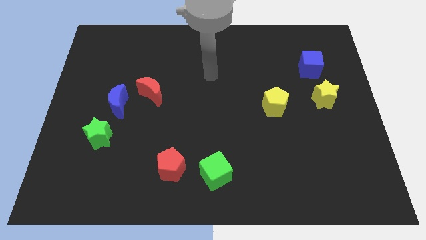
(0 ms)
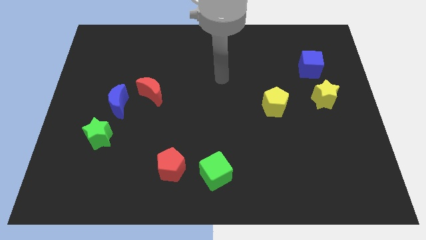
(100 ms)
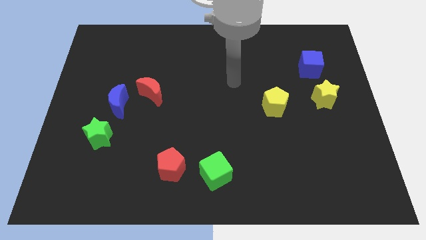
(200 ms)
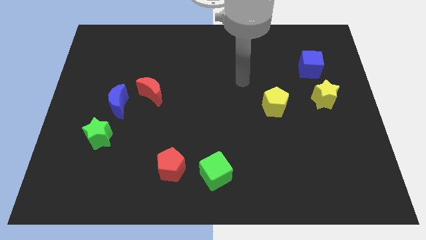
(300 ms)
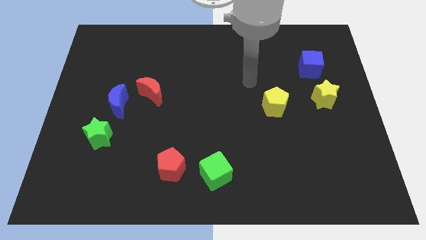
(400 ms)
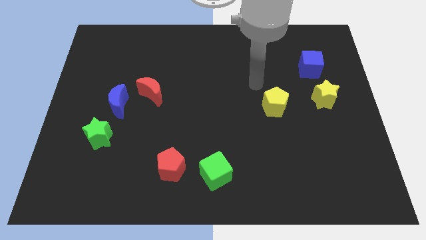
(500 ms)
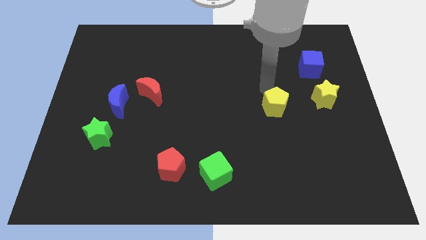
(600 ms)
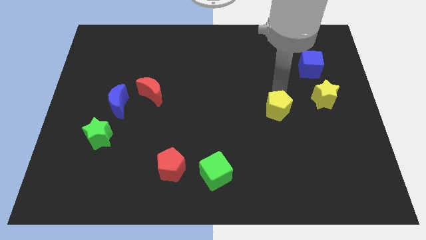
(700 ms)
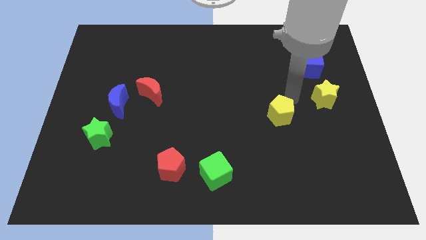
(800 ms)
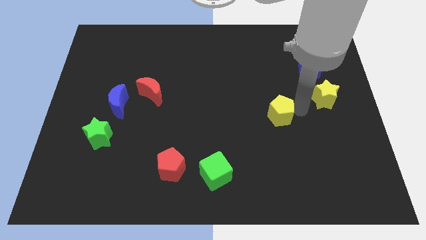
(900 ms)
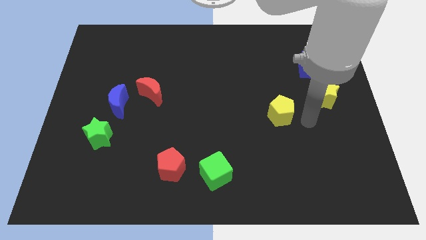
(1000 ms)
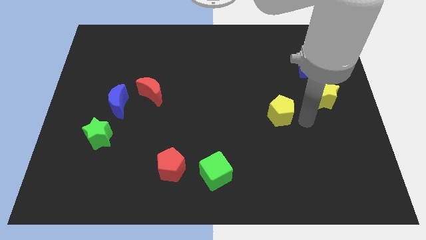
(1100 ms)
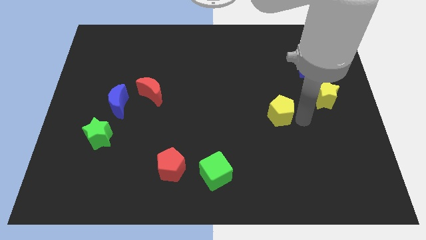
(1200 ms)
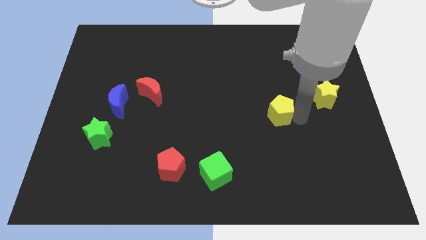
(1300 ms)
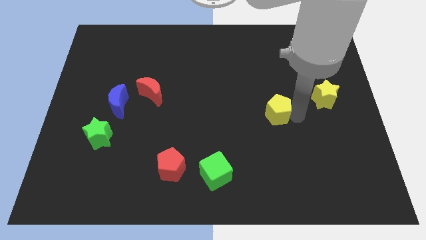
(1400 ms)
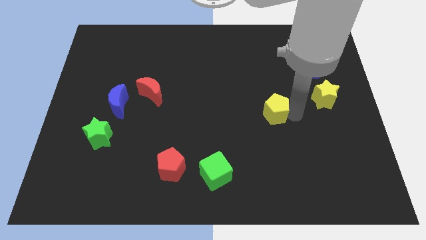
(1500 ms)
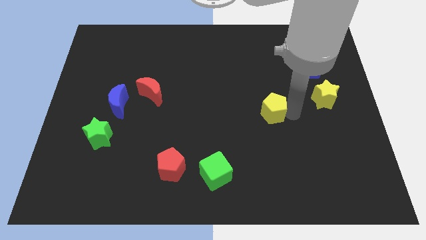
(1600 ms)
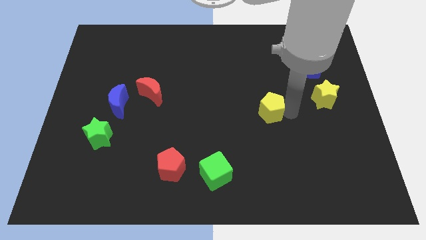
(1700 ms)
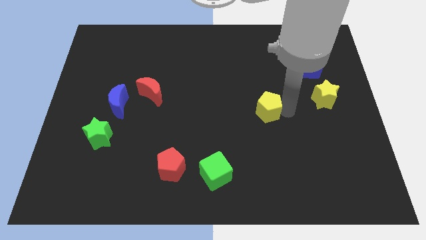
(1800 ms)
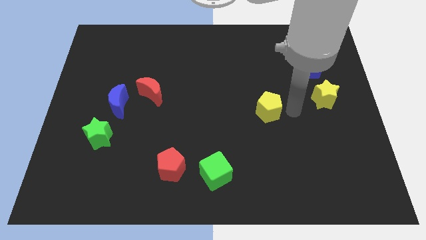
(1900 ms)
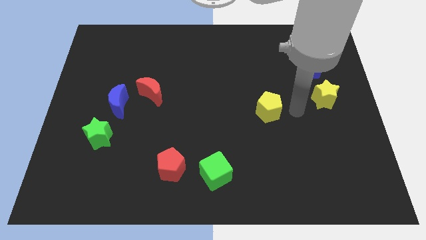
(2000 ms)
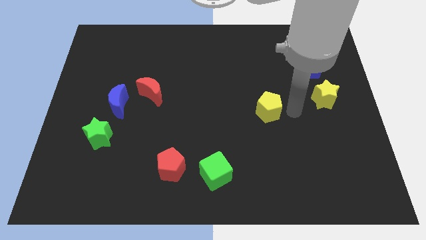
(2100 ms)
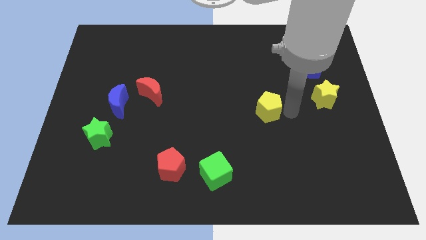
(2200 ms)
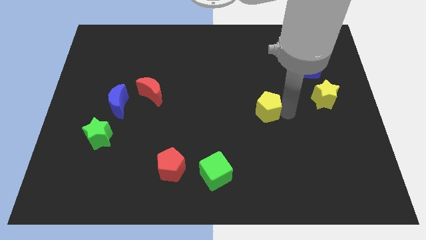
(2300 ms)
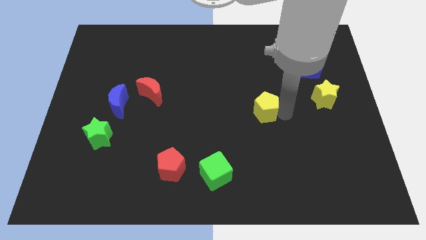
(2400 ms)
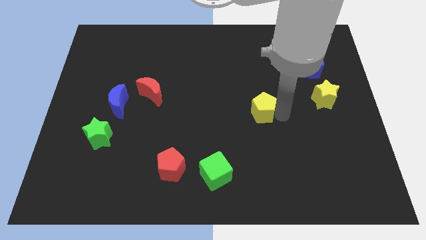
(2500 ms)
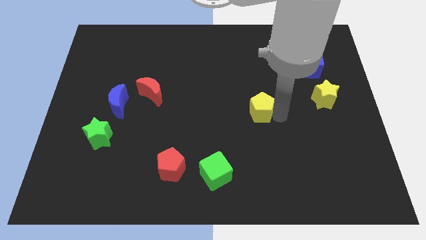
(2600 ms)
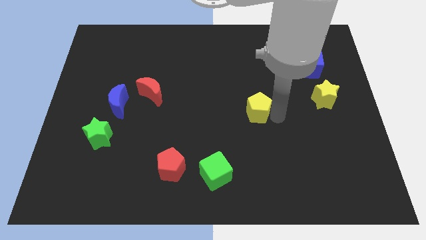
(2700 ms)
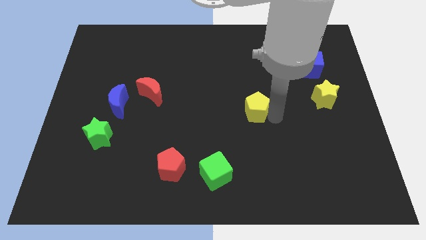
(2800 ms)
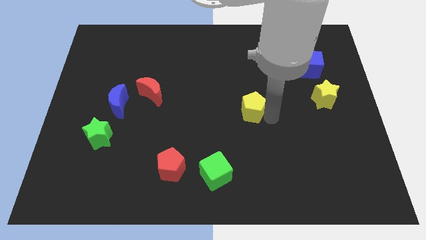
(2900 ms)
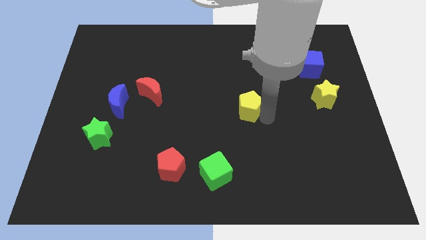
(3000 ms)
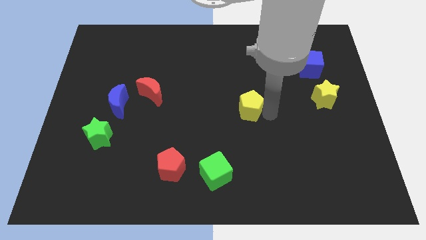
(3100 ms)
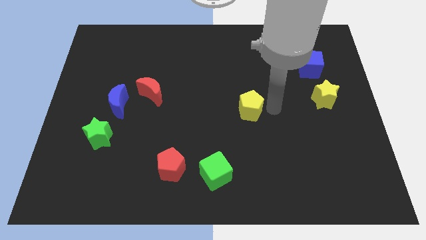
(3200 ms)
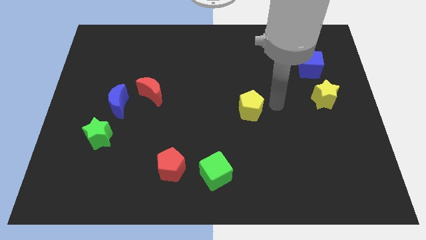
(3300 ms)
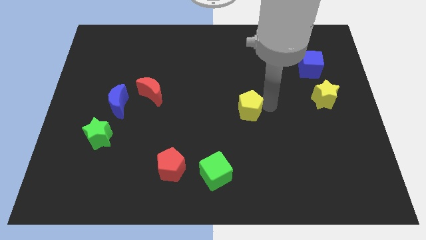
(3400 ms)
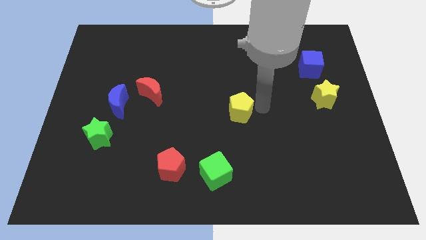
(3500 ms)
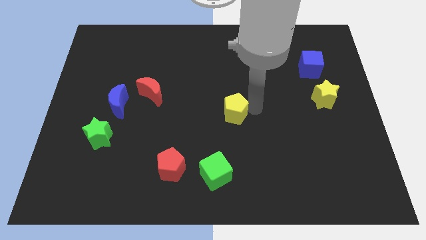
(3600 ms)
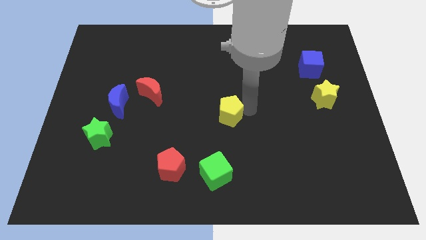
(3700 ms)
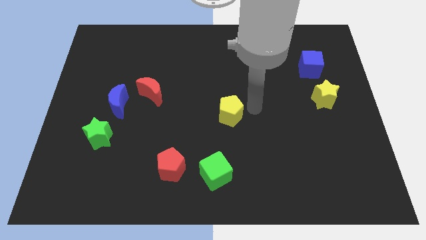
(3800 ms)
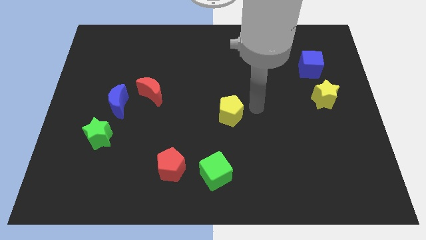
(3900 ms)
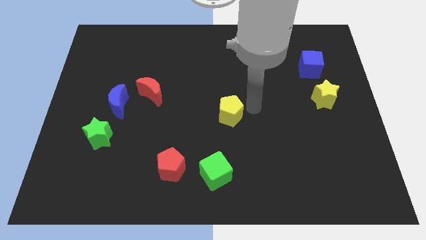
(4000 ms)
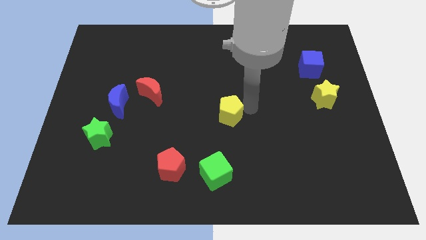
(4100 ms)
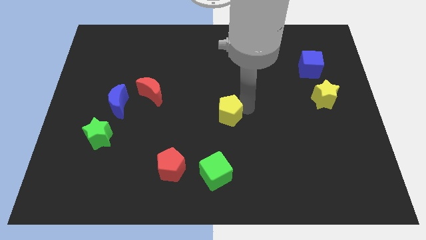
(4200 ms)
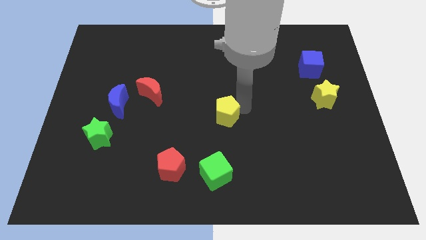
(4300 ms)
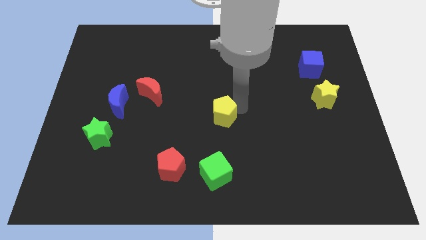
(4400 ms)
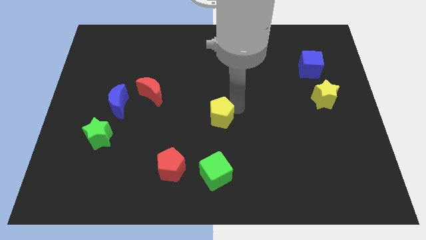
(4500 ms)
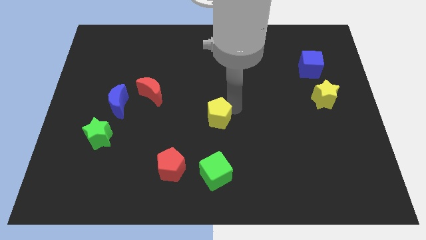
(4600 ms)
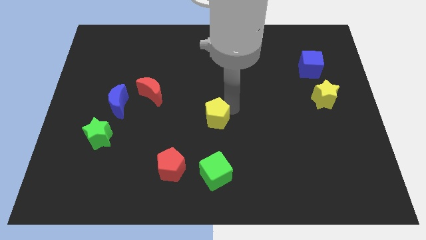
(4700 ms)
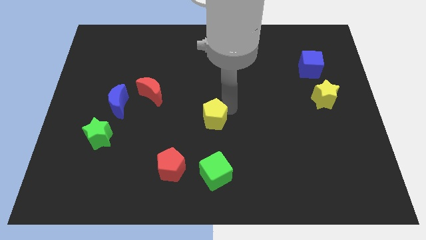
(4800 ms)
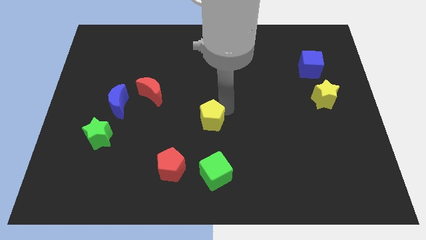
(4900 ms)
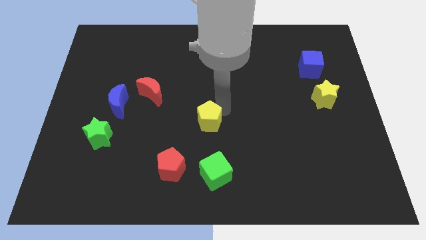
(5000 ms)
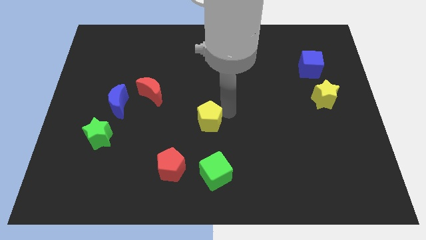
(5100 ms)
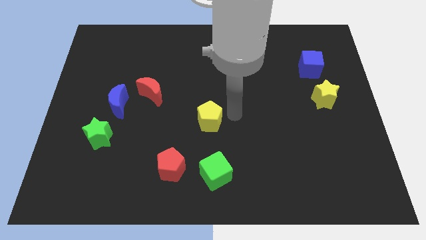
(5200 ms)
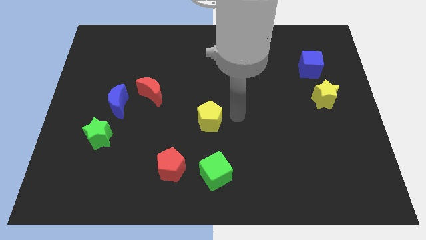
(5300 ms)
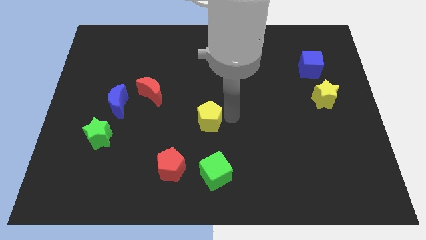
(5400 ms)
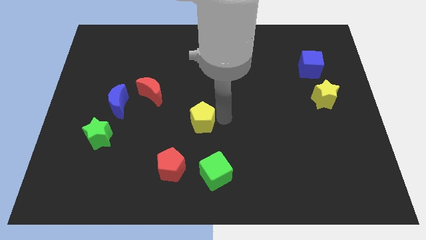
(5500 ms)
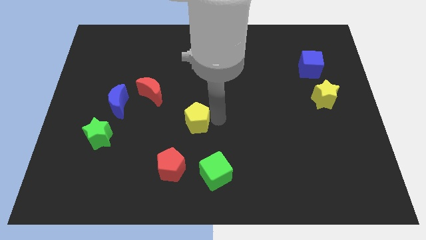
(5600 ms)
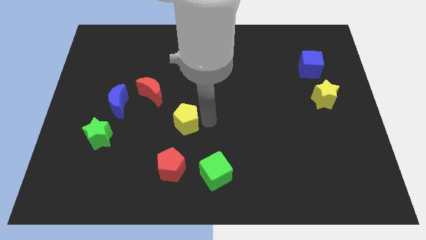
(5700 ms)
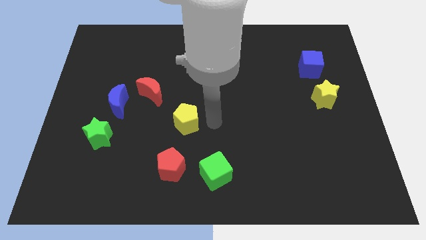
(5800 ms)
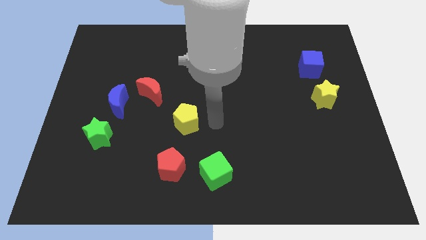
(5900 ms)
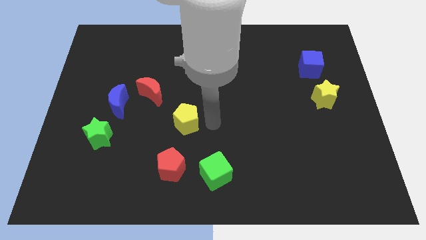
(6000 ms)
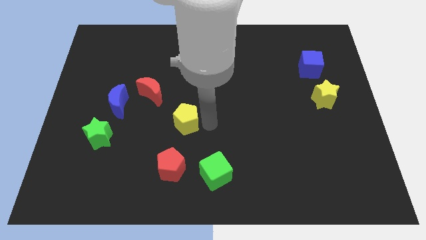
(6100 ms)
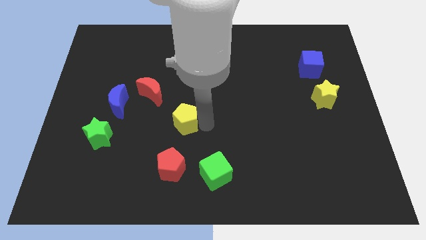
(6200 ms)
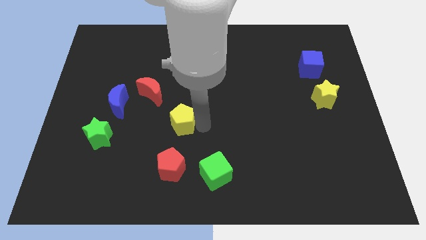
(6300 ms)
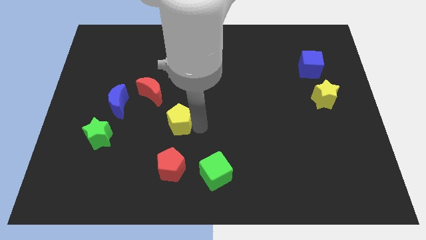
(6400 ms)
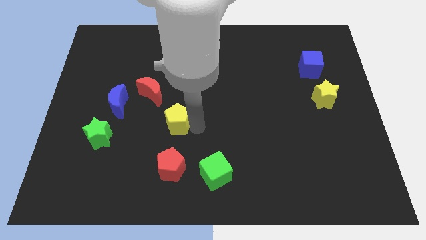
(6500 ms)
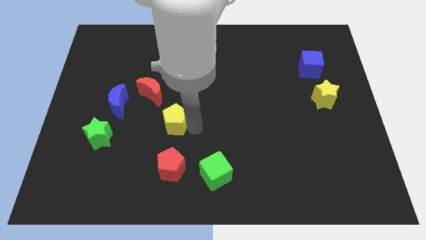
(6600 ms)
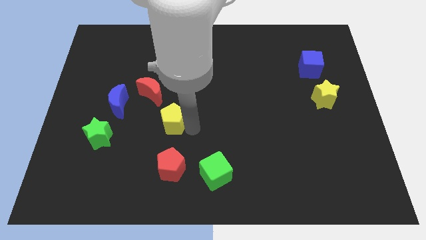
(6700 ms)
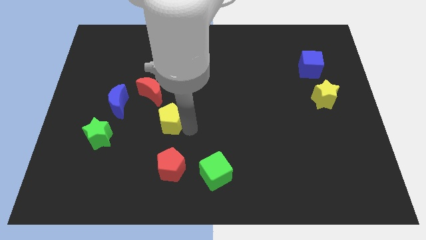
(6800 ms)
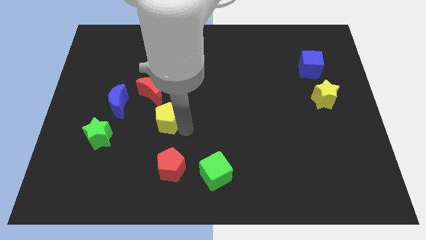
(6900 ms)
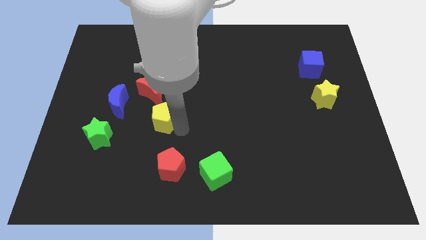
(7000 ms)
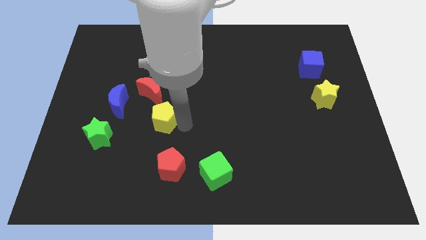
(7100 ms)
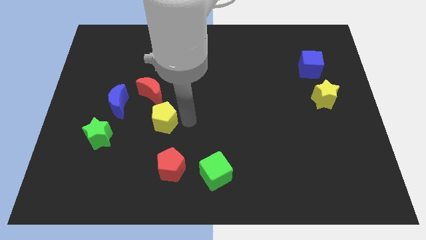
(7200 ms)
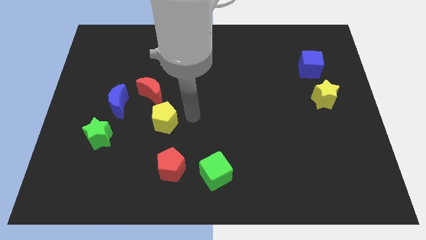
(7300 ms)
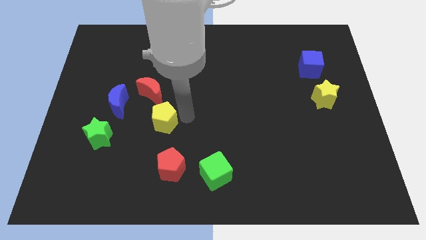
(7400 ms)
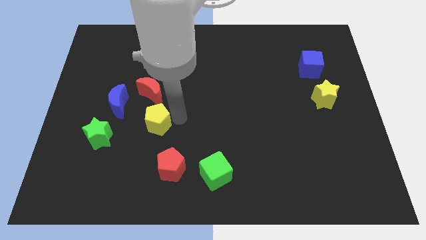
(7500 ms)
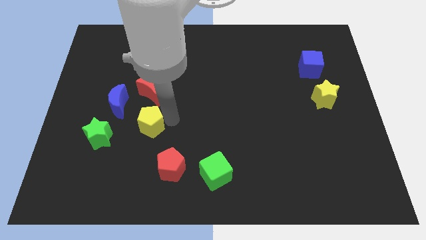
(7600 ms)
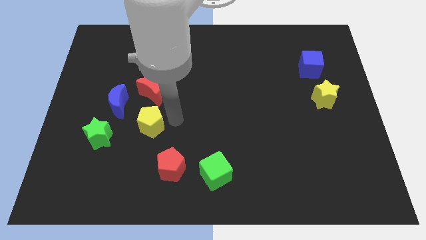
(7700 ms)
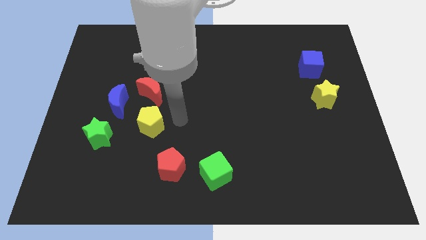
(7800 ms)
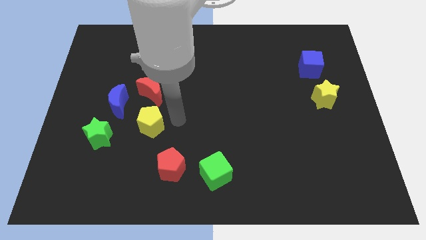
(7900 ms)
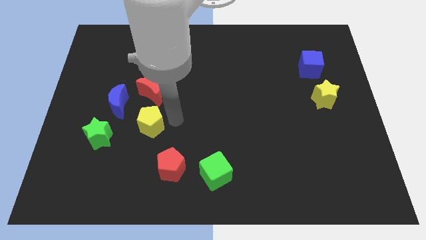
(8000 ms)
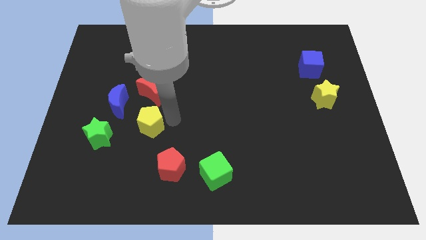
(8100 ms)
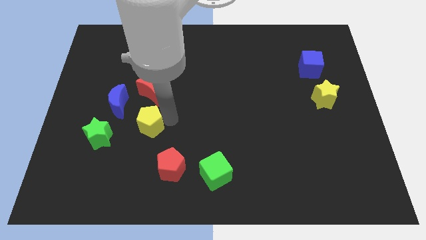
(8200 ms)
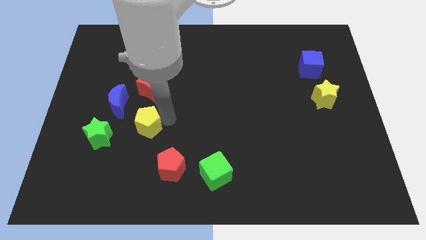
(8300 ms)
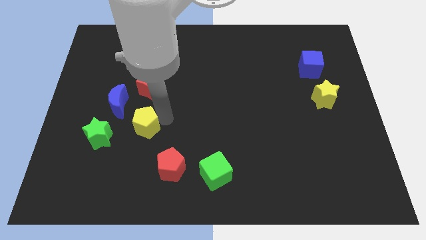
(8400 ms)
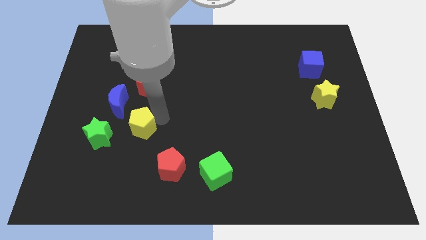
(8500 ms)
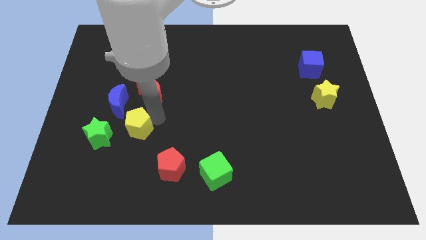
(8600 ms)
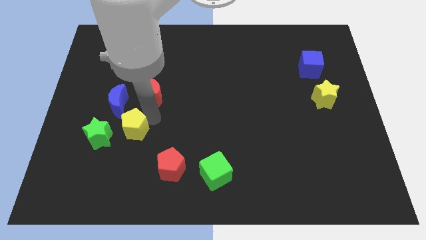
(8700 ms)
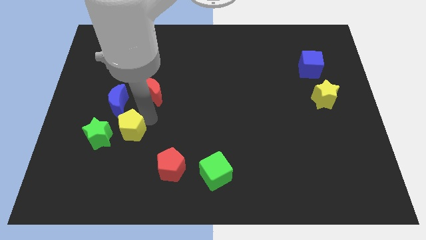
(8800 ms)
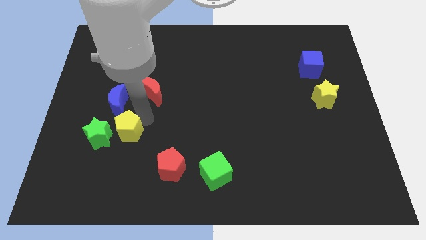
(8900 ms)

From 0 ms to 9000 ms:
push the yellow pentagon towards the green star
